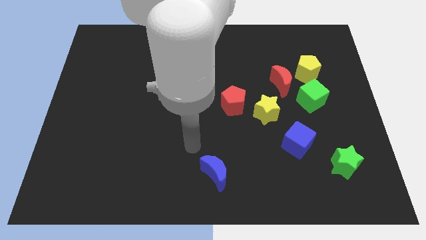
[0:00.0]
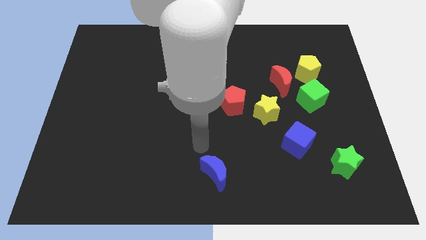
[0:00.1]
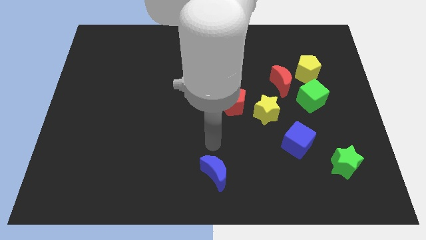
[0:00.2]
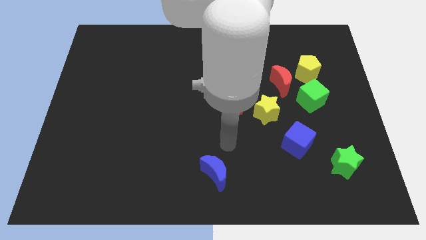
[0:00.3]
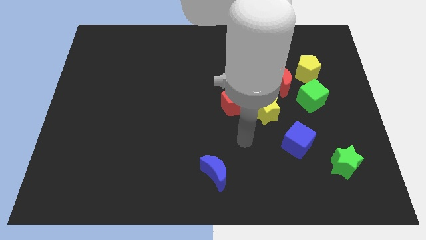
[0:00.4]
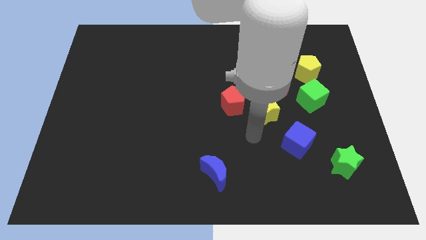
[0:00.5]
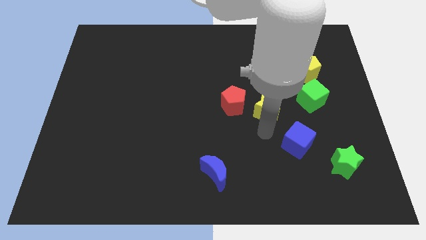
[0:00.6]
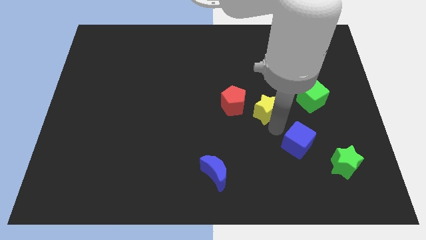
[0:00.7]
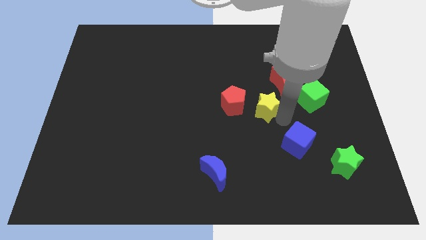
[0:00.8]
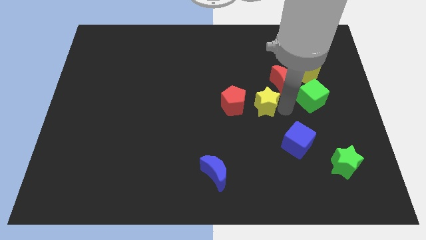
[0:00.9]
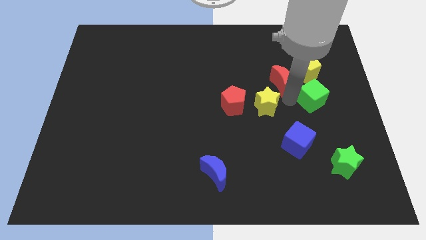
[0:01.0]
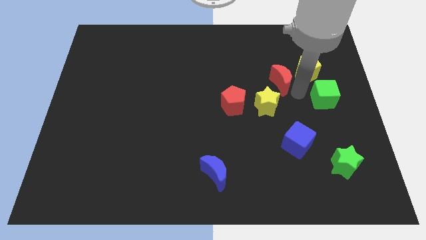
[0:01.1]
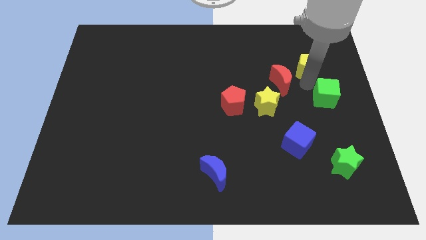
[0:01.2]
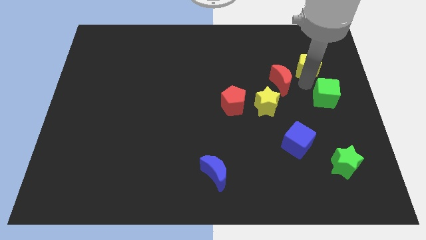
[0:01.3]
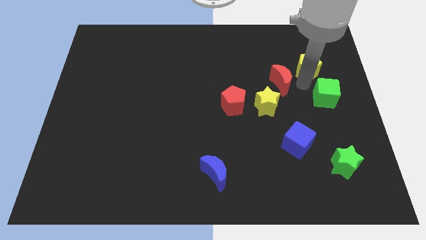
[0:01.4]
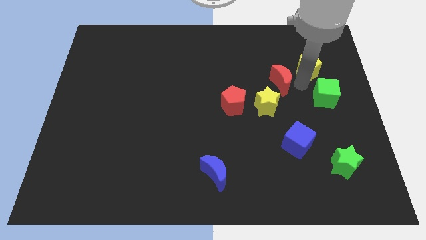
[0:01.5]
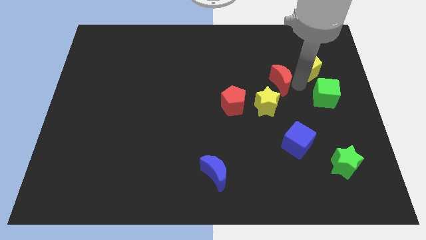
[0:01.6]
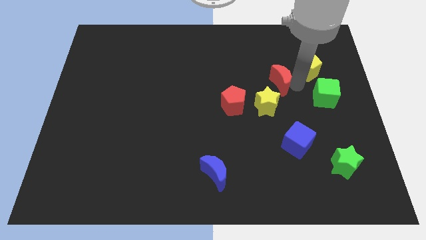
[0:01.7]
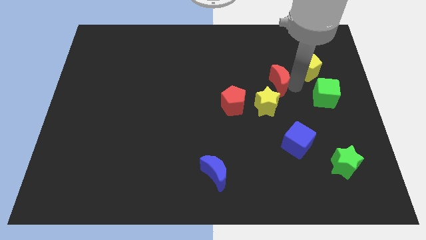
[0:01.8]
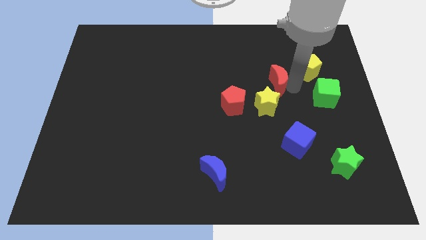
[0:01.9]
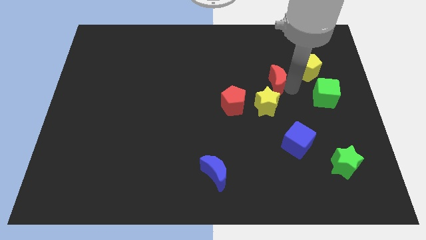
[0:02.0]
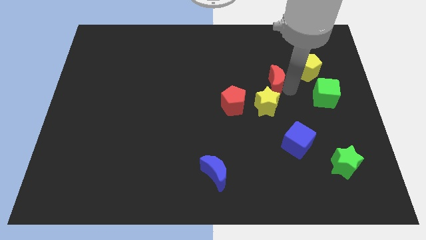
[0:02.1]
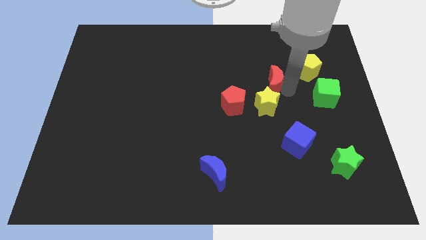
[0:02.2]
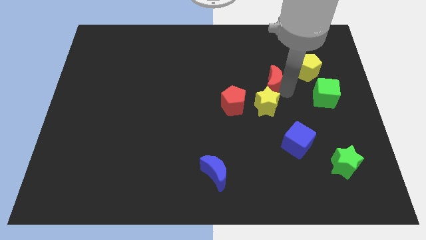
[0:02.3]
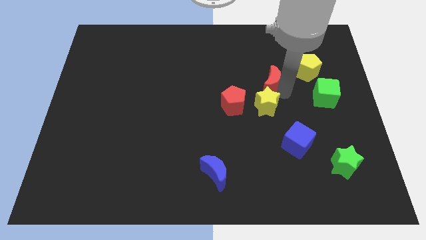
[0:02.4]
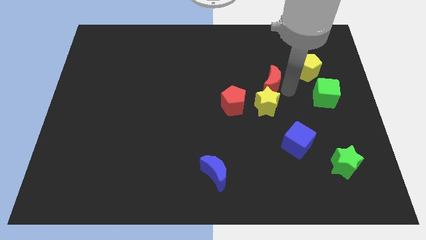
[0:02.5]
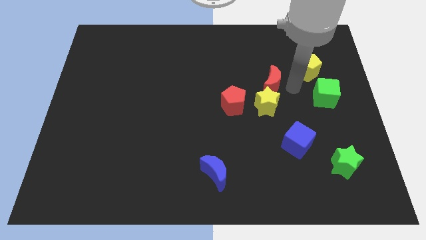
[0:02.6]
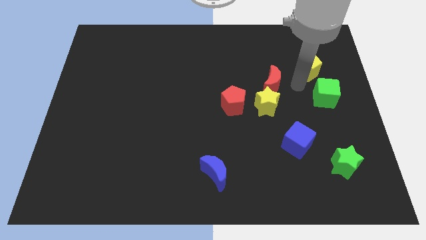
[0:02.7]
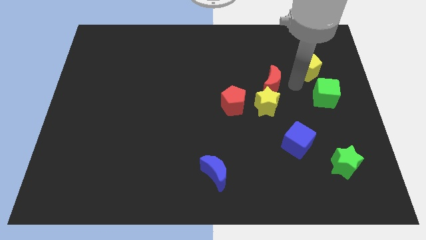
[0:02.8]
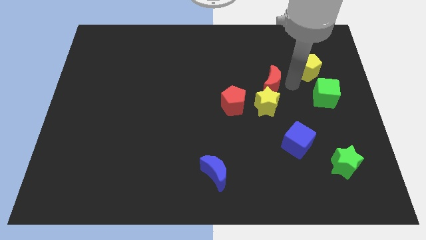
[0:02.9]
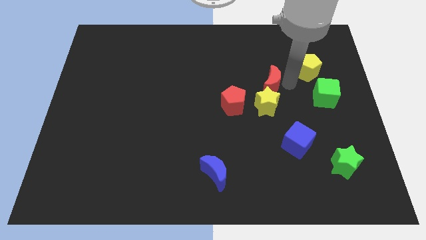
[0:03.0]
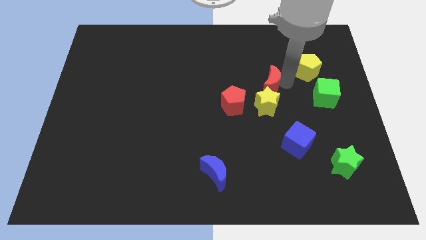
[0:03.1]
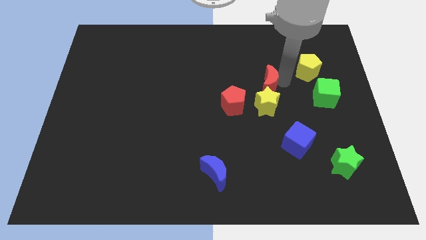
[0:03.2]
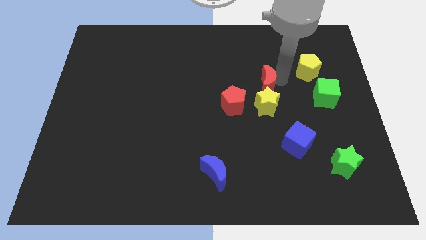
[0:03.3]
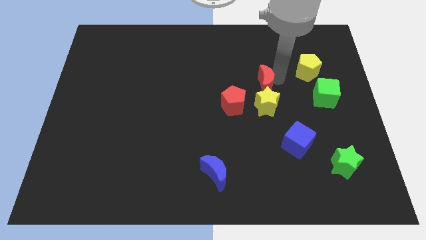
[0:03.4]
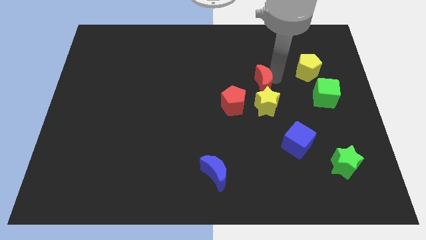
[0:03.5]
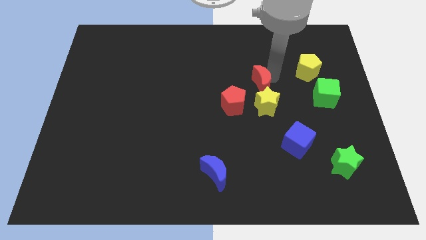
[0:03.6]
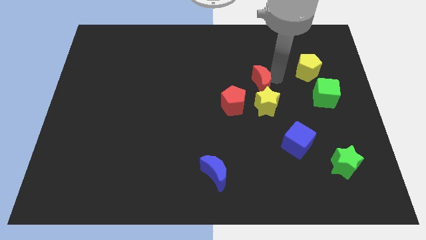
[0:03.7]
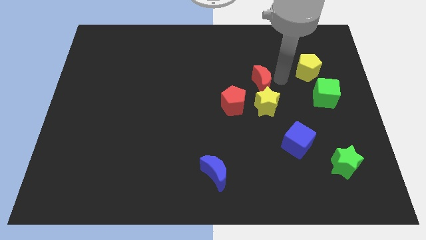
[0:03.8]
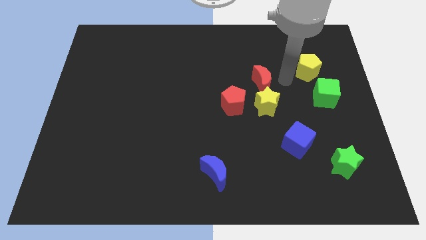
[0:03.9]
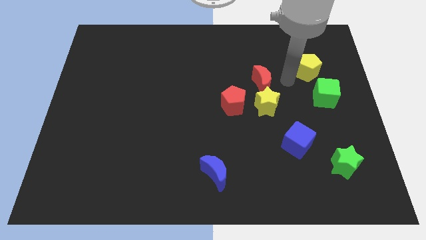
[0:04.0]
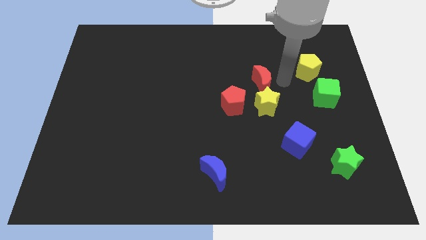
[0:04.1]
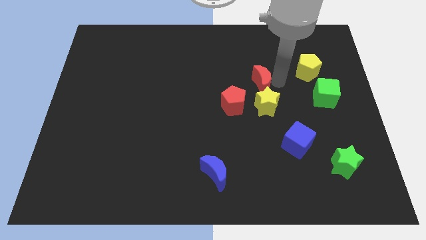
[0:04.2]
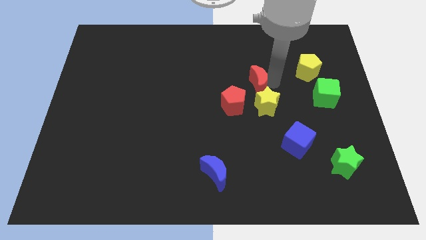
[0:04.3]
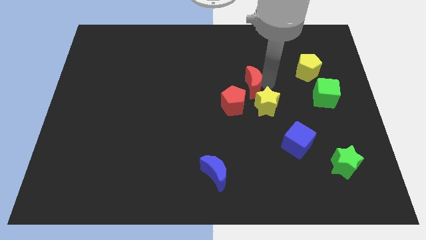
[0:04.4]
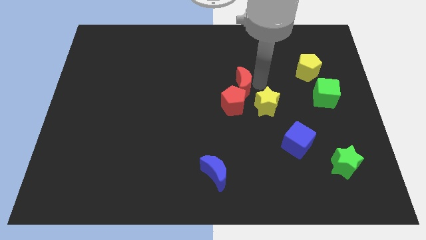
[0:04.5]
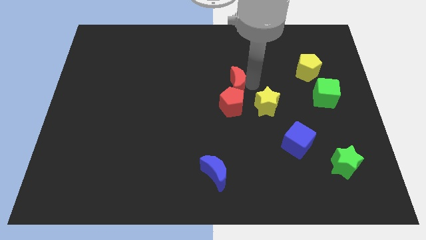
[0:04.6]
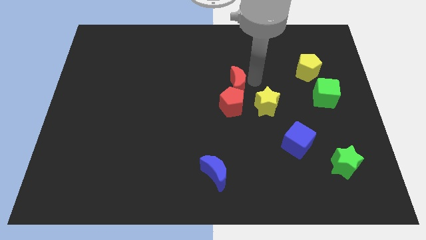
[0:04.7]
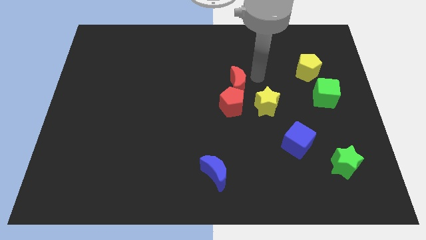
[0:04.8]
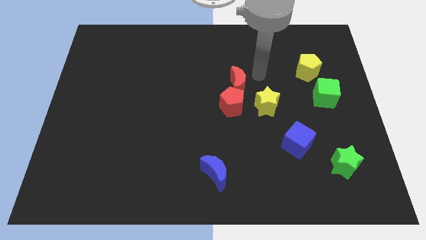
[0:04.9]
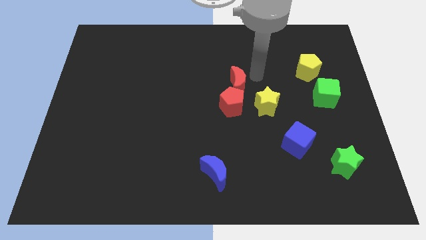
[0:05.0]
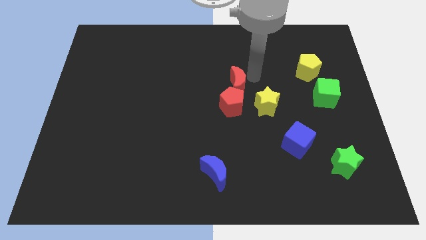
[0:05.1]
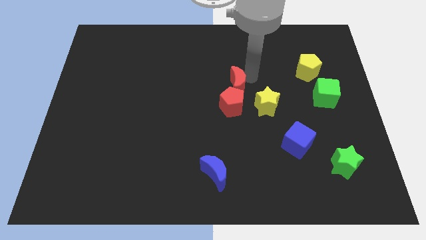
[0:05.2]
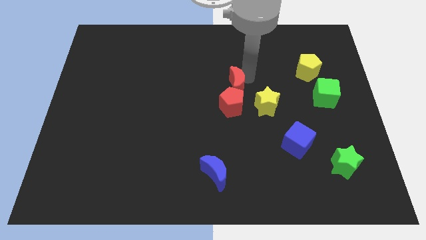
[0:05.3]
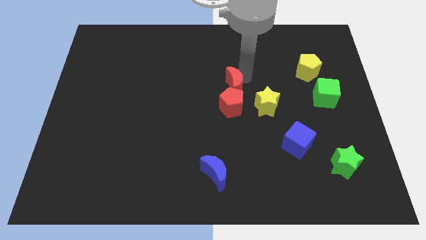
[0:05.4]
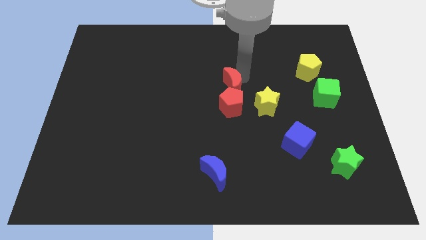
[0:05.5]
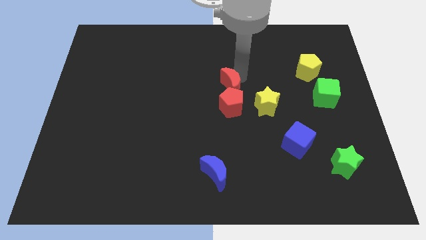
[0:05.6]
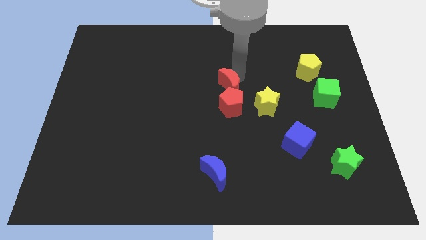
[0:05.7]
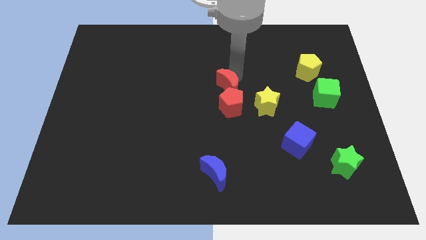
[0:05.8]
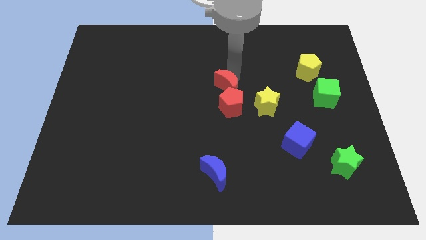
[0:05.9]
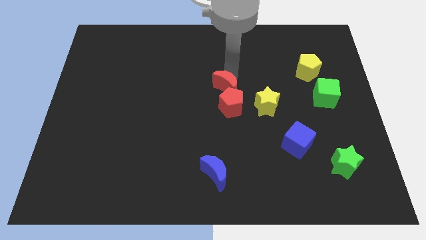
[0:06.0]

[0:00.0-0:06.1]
push the red moon slightly down and then to the left

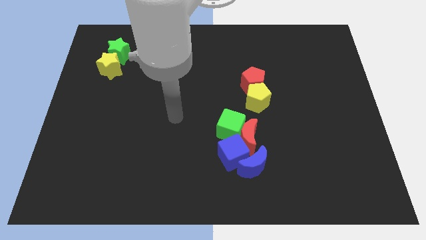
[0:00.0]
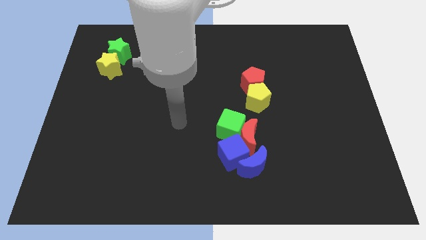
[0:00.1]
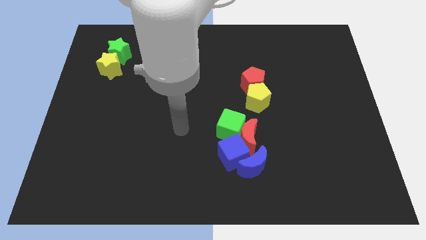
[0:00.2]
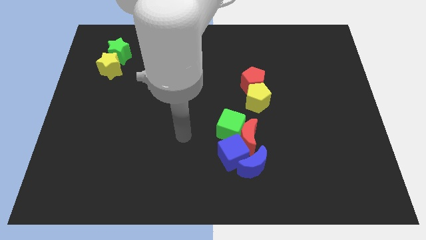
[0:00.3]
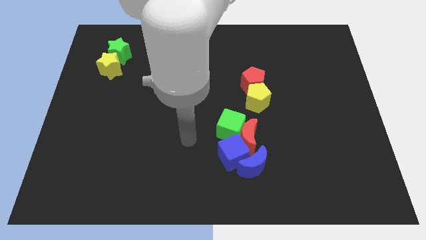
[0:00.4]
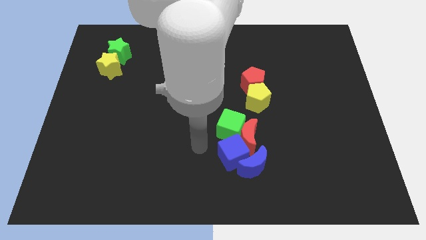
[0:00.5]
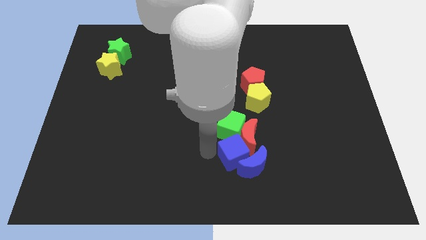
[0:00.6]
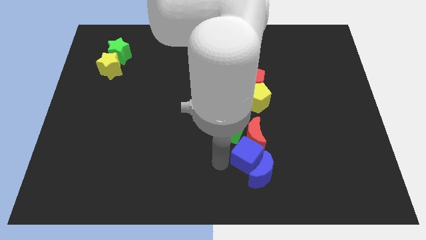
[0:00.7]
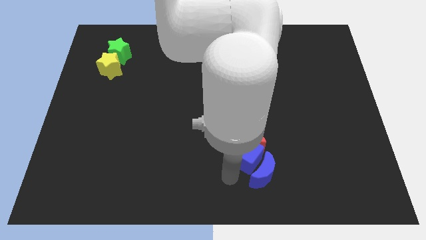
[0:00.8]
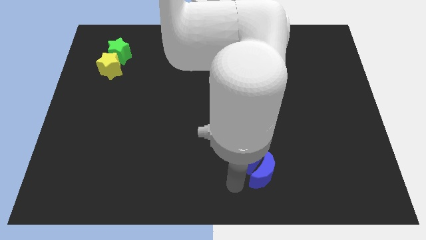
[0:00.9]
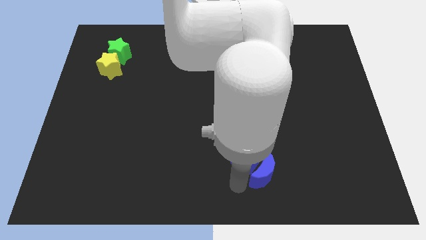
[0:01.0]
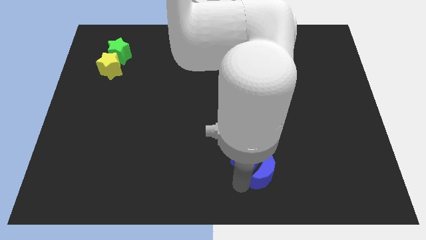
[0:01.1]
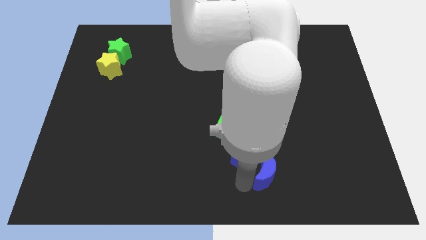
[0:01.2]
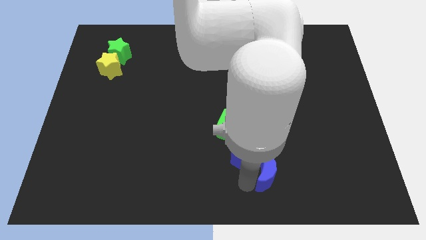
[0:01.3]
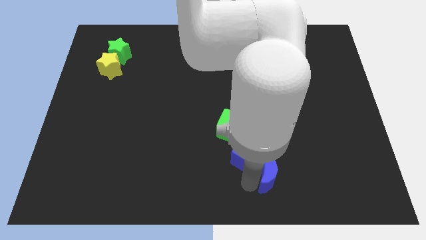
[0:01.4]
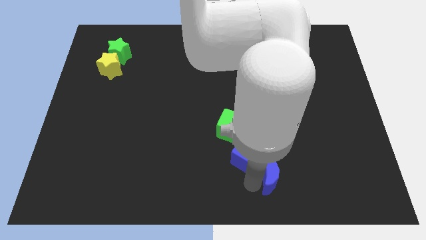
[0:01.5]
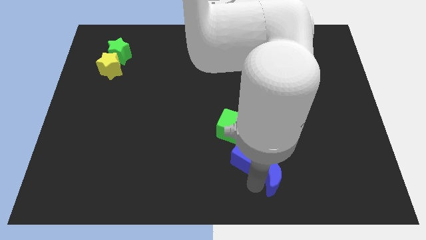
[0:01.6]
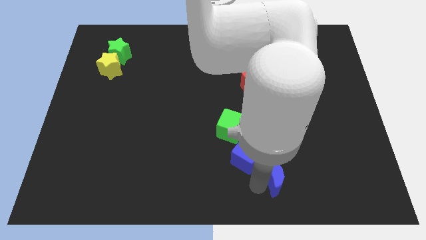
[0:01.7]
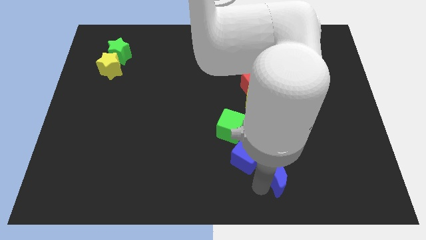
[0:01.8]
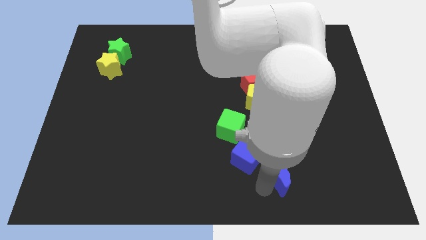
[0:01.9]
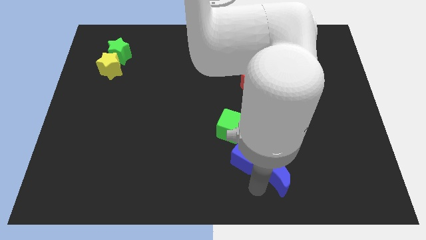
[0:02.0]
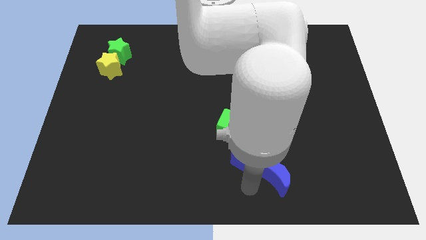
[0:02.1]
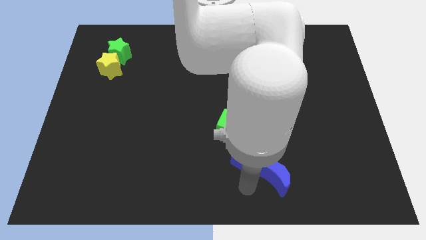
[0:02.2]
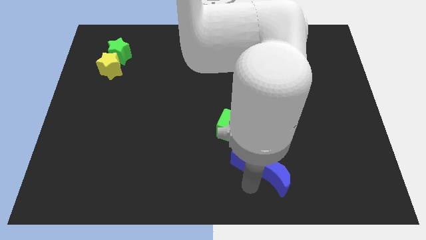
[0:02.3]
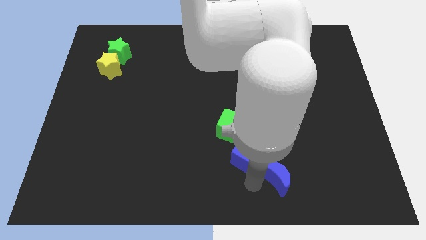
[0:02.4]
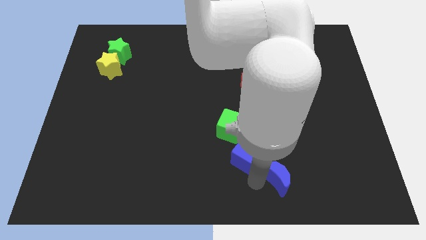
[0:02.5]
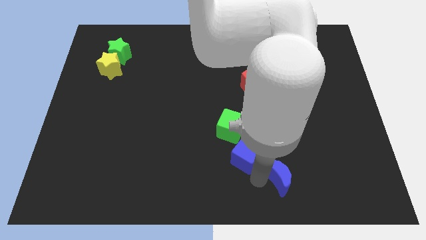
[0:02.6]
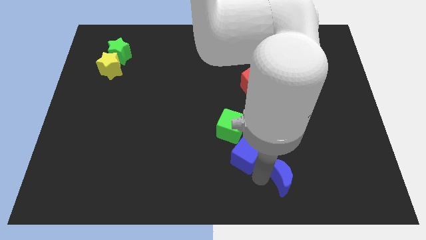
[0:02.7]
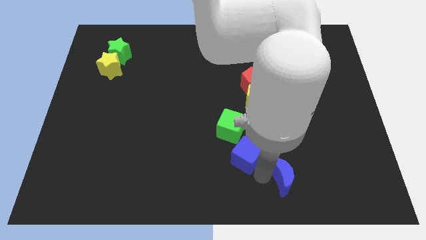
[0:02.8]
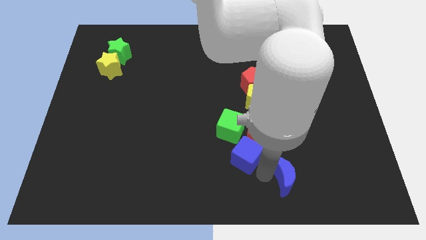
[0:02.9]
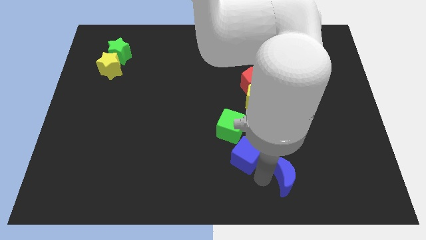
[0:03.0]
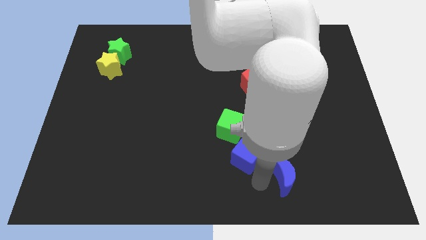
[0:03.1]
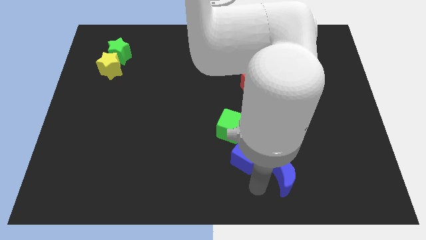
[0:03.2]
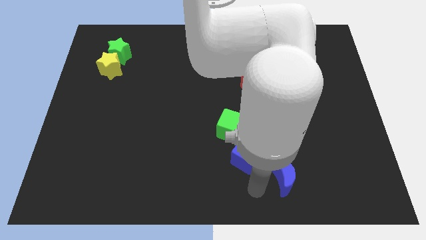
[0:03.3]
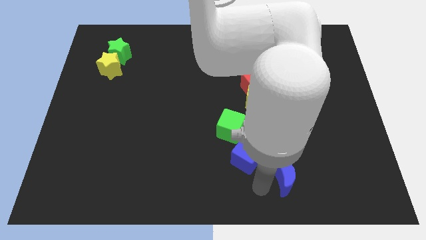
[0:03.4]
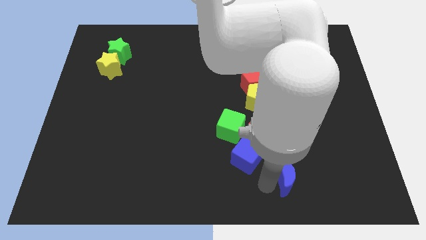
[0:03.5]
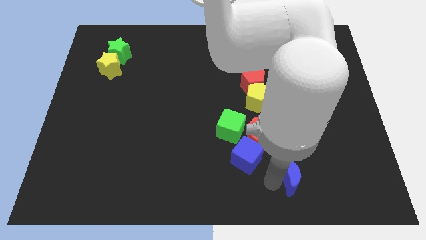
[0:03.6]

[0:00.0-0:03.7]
slightly slide the blue moon to the right
